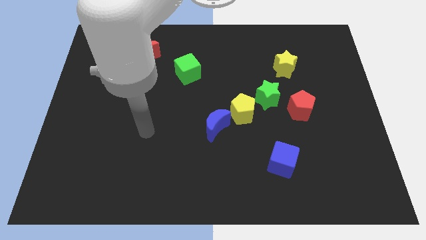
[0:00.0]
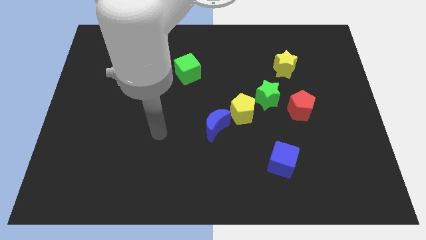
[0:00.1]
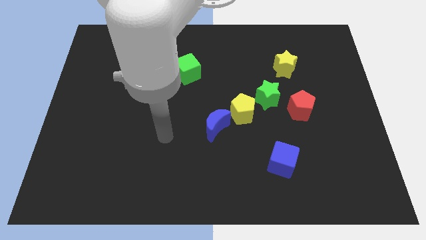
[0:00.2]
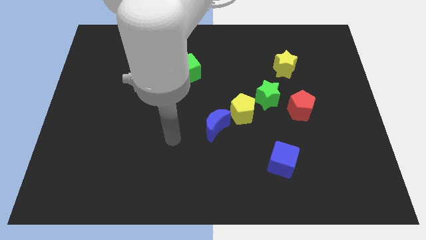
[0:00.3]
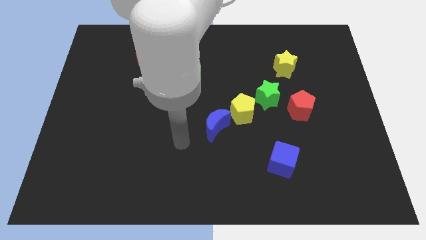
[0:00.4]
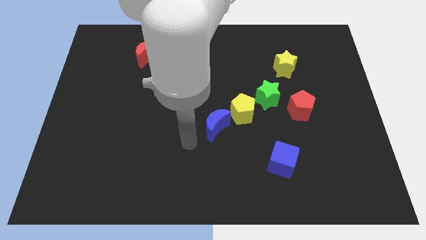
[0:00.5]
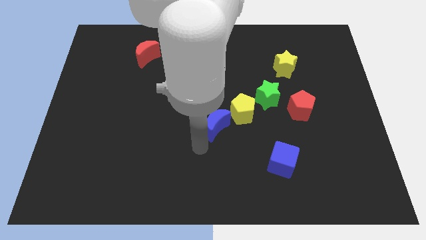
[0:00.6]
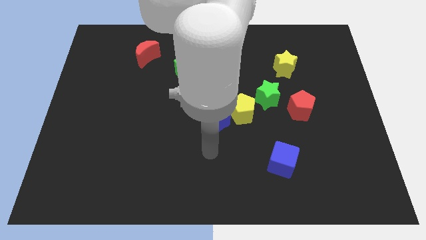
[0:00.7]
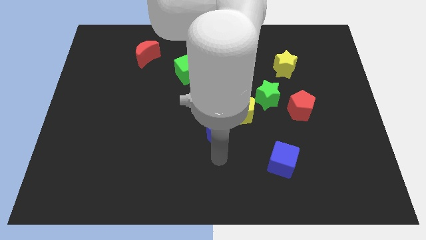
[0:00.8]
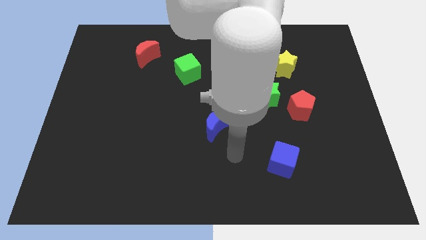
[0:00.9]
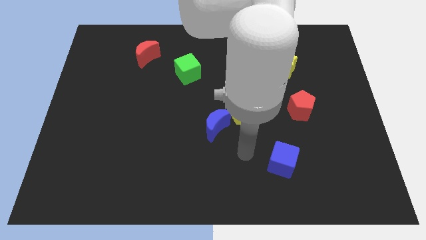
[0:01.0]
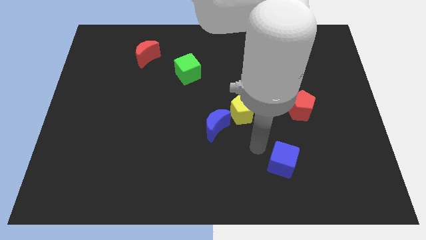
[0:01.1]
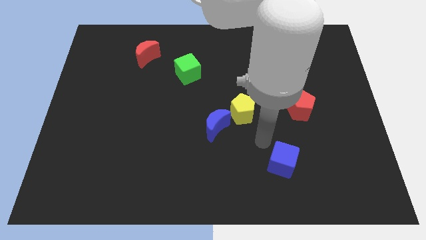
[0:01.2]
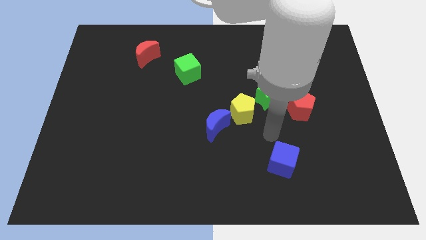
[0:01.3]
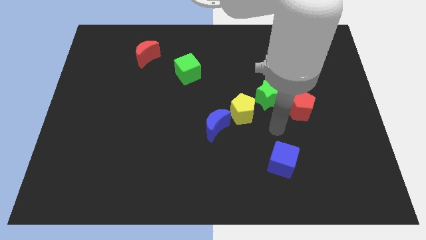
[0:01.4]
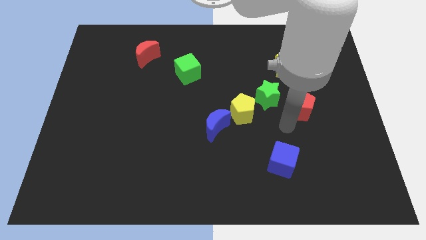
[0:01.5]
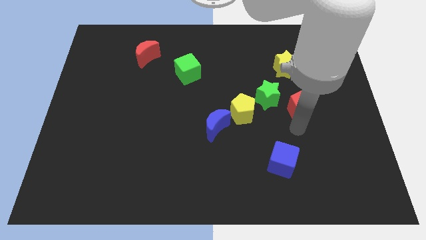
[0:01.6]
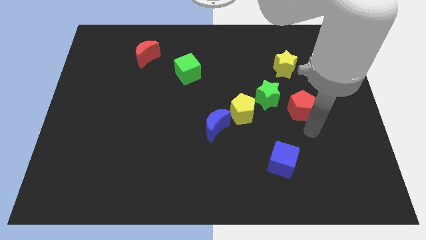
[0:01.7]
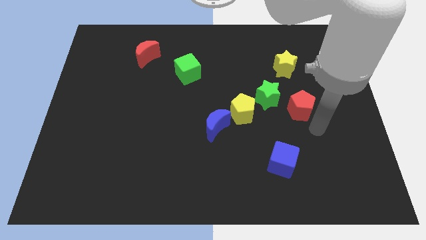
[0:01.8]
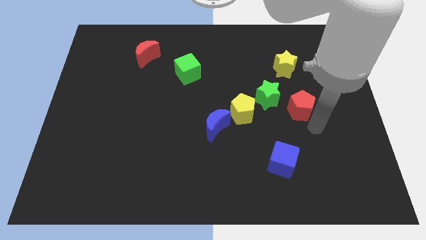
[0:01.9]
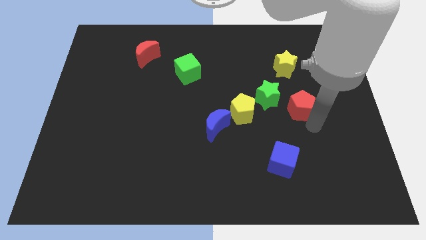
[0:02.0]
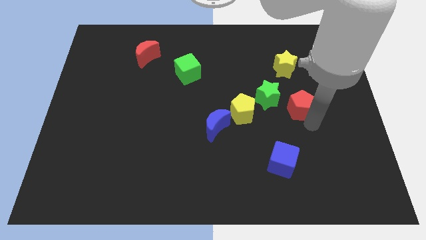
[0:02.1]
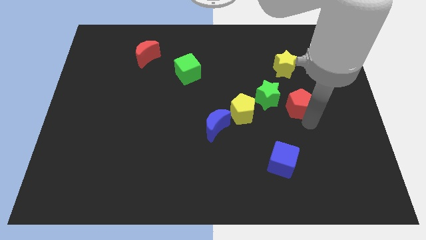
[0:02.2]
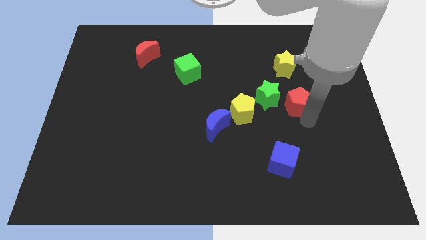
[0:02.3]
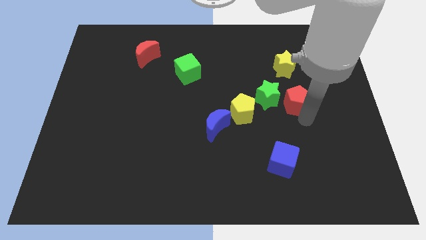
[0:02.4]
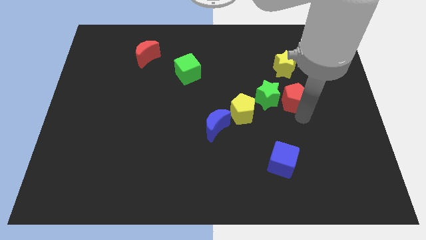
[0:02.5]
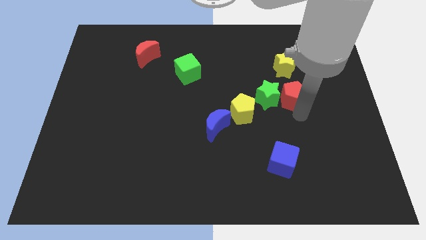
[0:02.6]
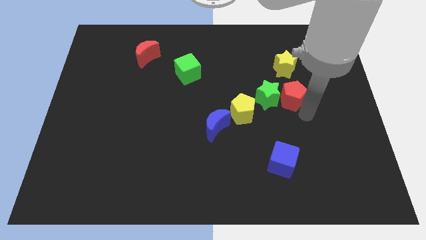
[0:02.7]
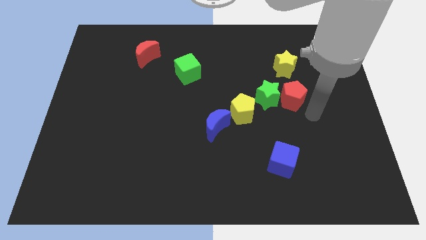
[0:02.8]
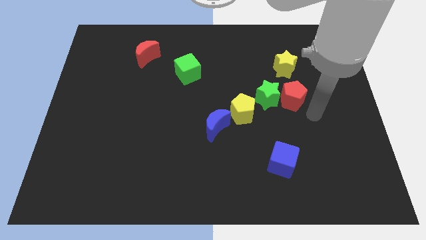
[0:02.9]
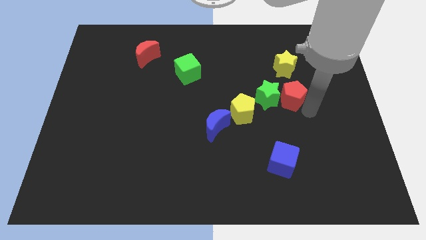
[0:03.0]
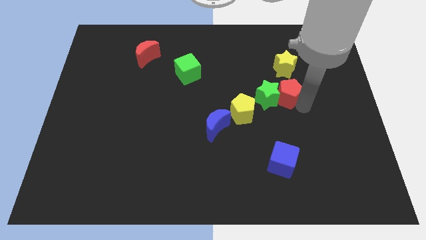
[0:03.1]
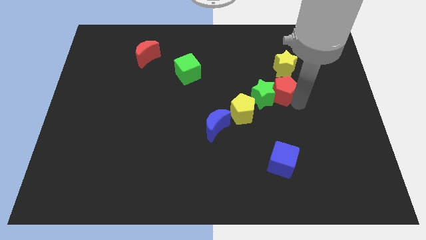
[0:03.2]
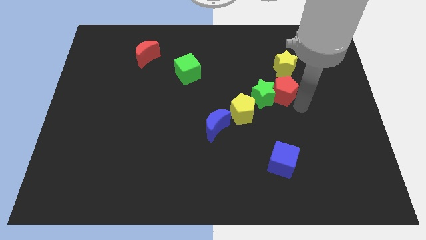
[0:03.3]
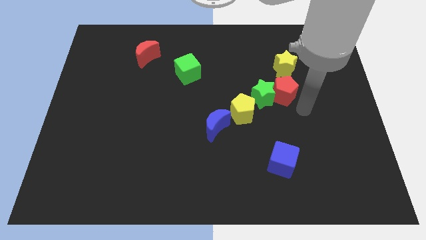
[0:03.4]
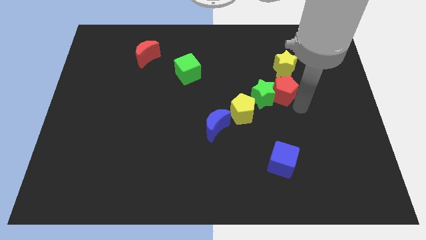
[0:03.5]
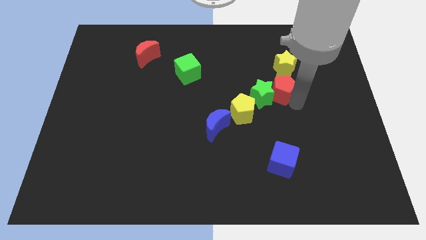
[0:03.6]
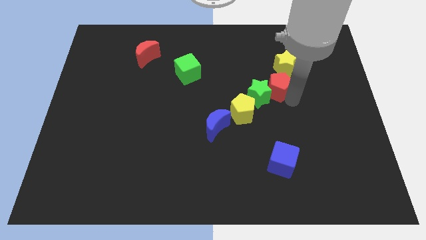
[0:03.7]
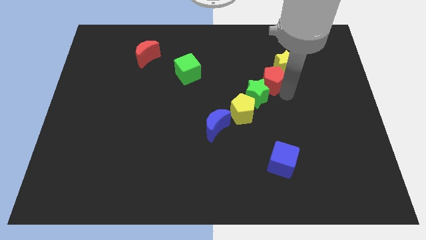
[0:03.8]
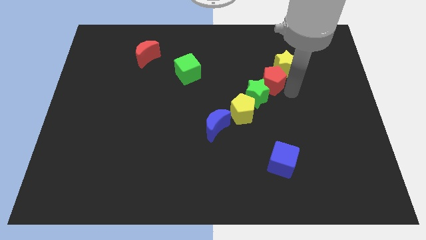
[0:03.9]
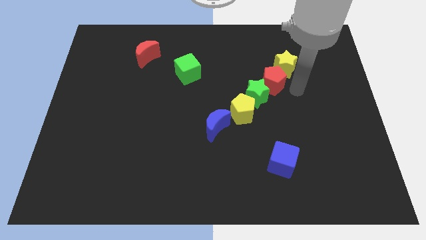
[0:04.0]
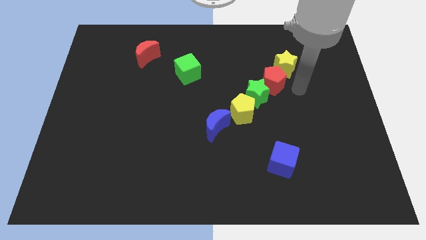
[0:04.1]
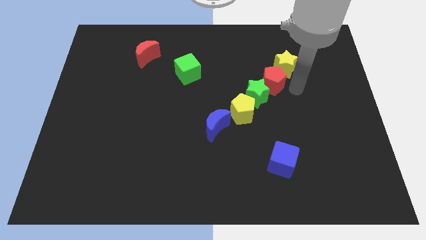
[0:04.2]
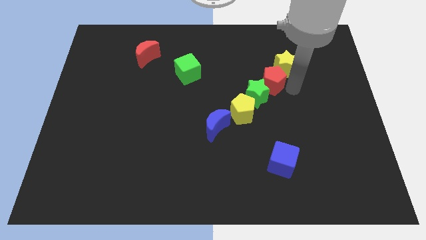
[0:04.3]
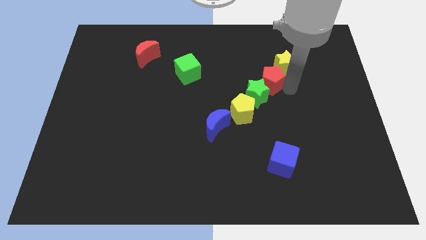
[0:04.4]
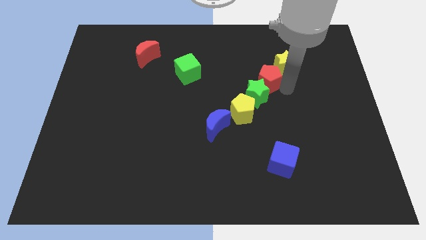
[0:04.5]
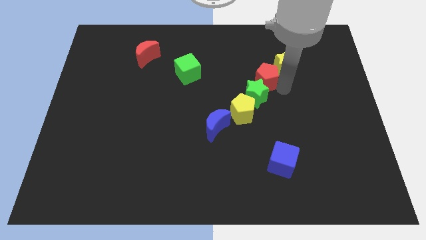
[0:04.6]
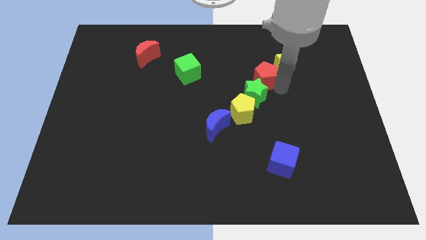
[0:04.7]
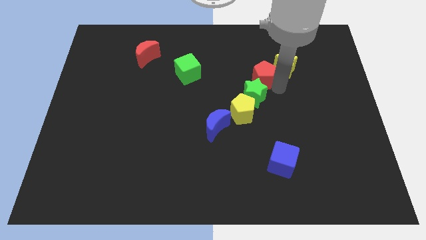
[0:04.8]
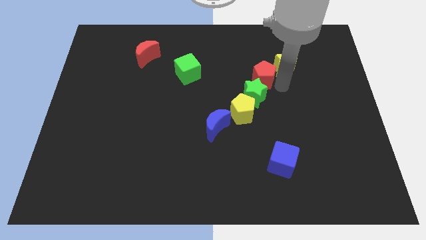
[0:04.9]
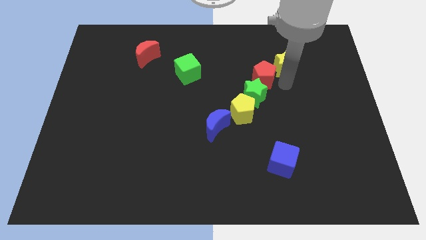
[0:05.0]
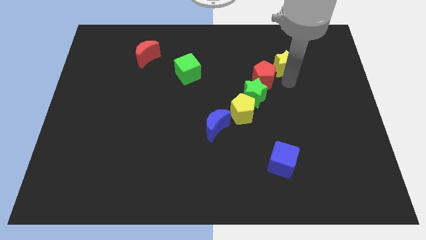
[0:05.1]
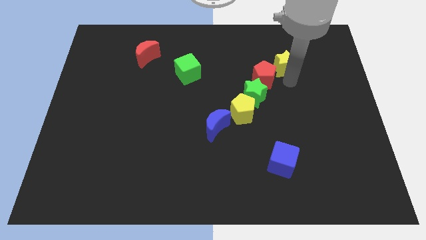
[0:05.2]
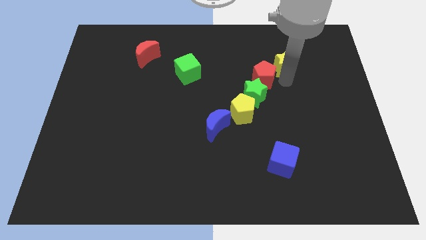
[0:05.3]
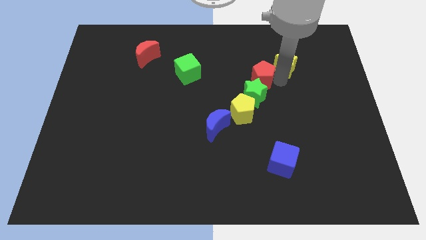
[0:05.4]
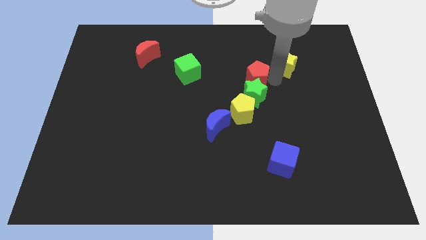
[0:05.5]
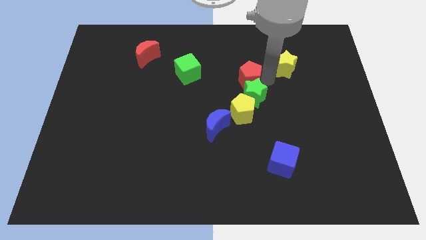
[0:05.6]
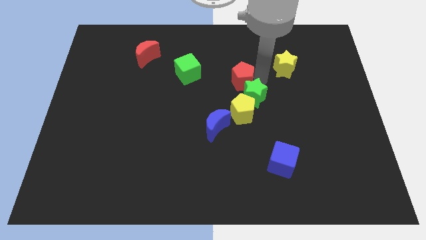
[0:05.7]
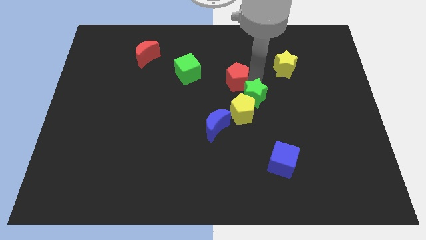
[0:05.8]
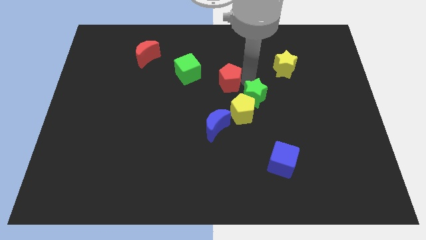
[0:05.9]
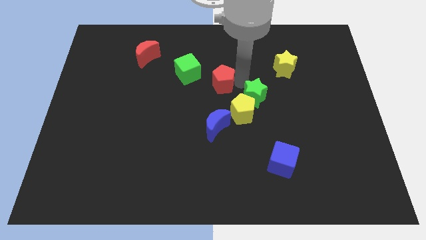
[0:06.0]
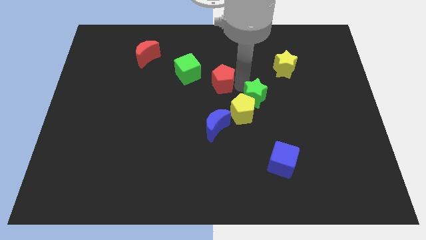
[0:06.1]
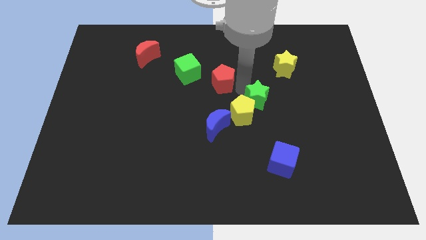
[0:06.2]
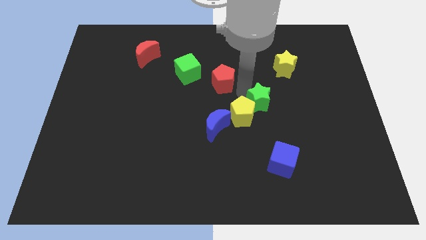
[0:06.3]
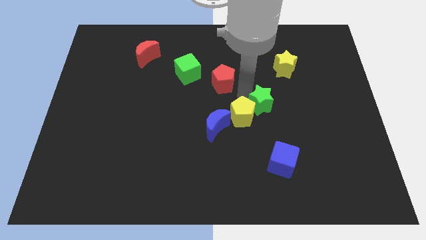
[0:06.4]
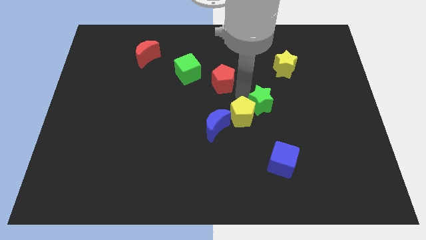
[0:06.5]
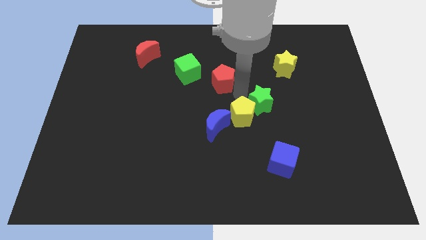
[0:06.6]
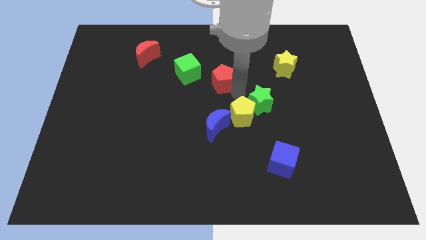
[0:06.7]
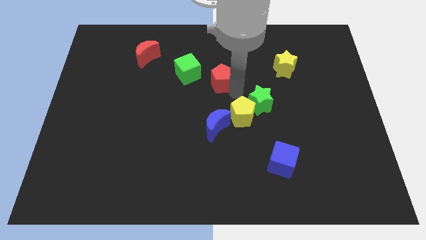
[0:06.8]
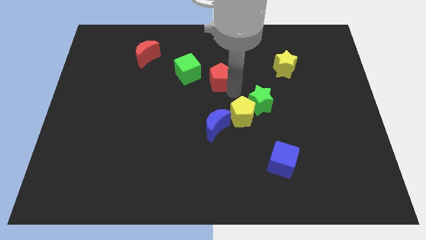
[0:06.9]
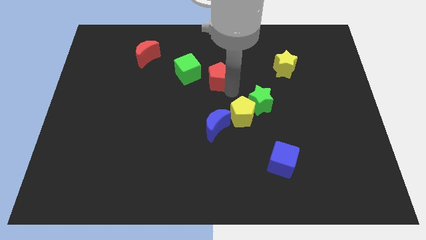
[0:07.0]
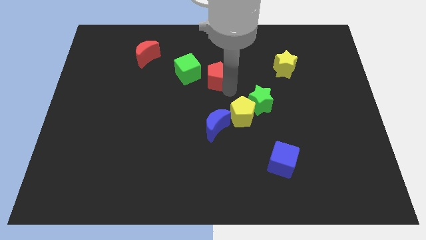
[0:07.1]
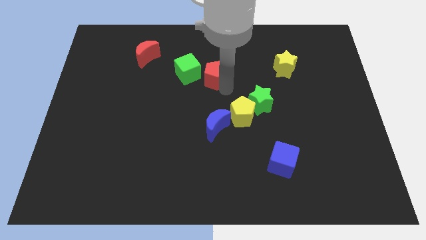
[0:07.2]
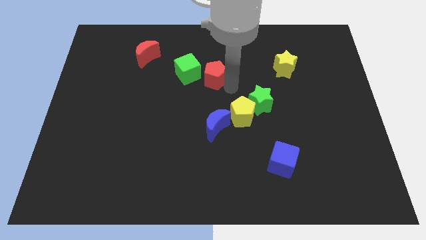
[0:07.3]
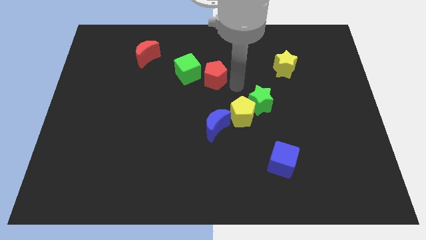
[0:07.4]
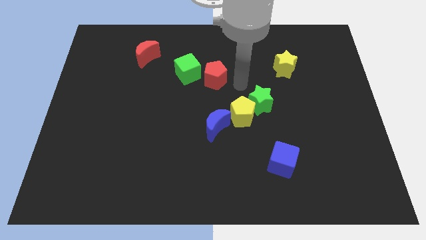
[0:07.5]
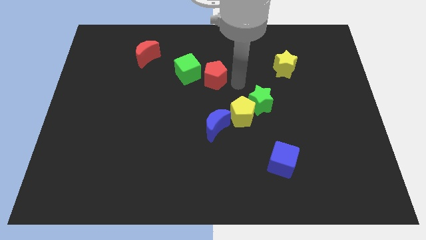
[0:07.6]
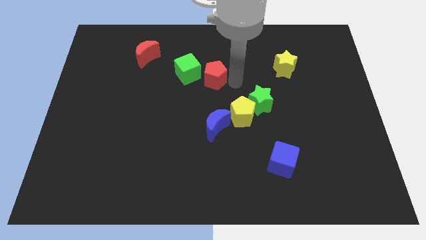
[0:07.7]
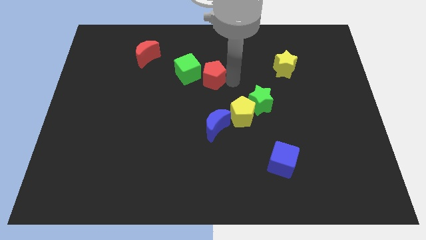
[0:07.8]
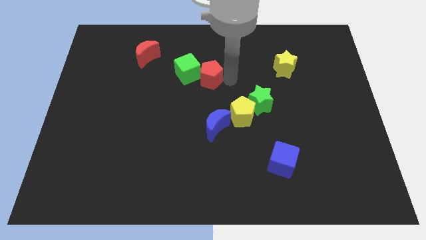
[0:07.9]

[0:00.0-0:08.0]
move the red pentagon to the green cube
